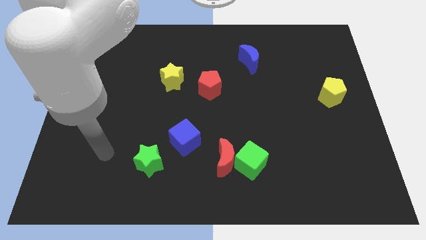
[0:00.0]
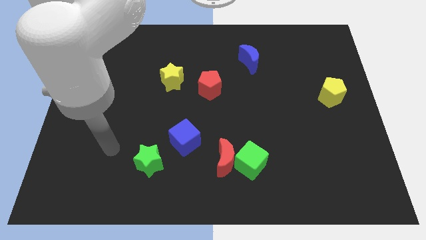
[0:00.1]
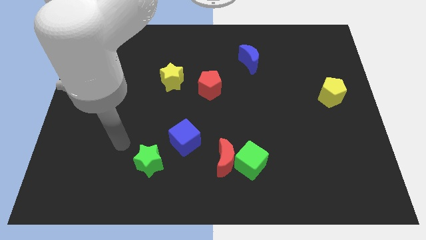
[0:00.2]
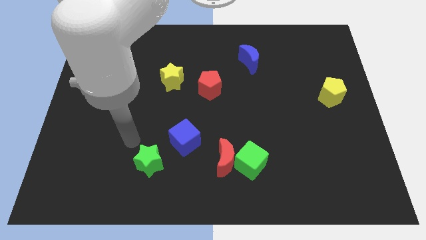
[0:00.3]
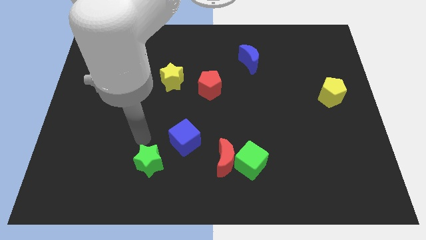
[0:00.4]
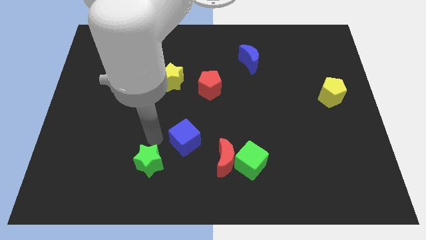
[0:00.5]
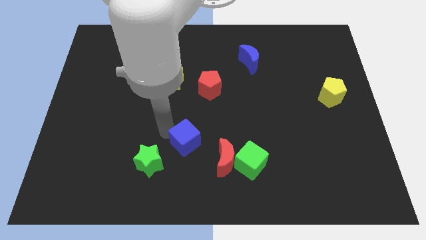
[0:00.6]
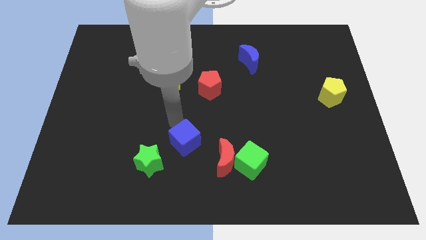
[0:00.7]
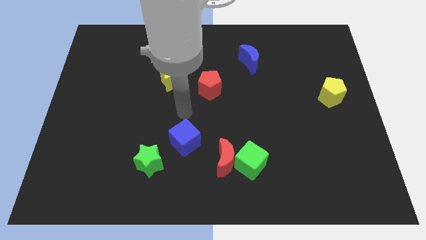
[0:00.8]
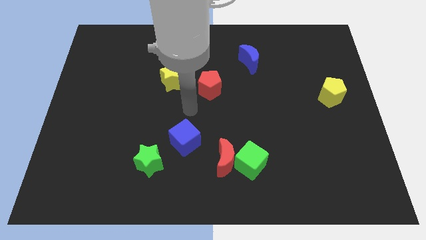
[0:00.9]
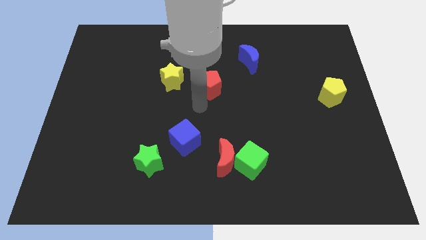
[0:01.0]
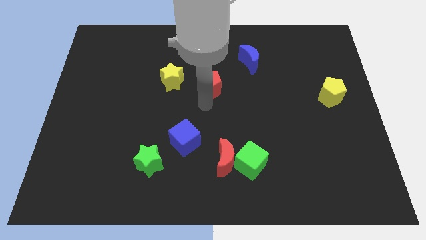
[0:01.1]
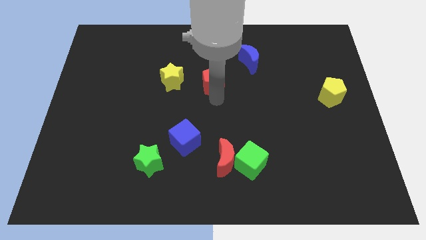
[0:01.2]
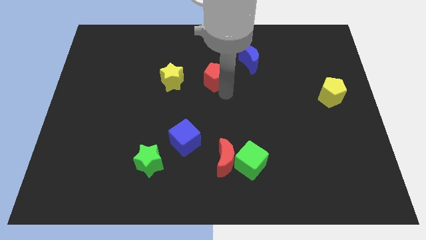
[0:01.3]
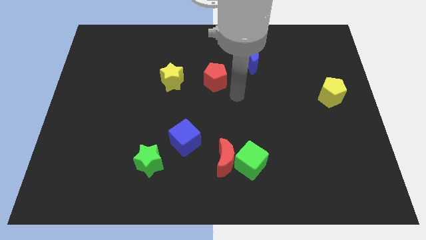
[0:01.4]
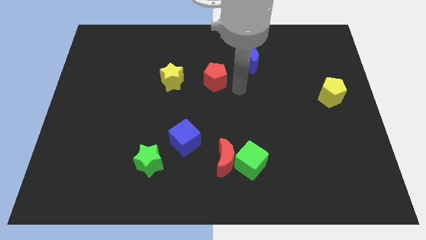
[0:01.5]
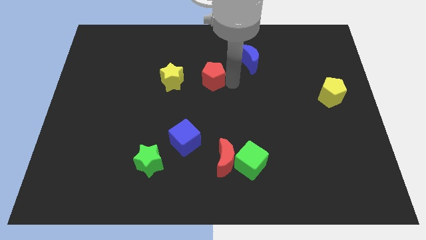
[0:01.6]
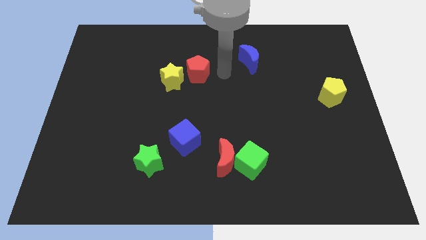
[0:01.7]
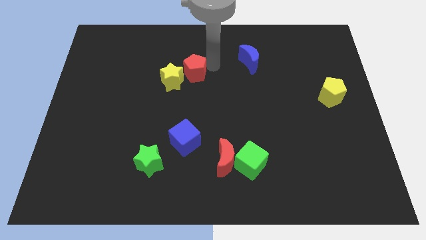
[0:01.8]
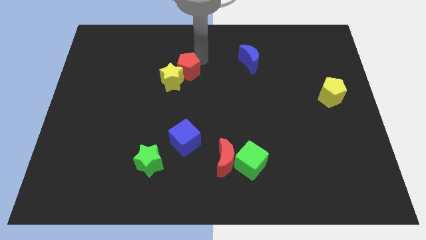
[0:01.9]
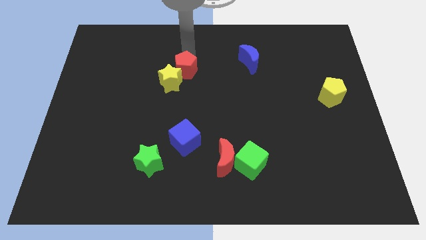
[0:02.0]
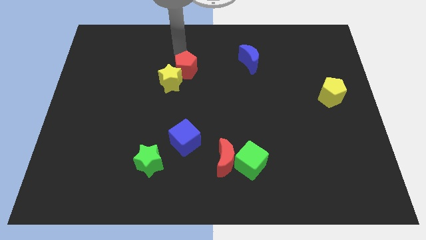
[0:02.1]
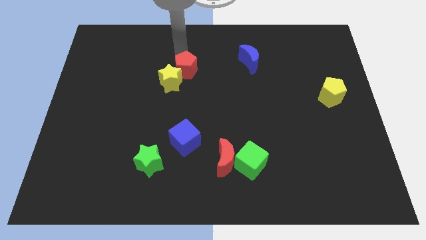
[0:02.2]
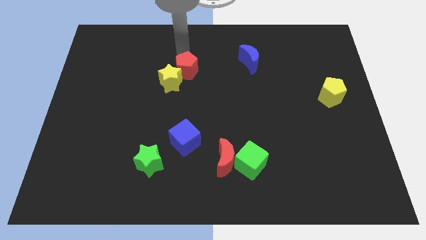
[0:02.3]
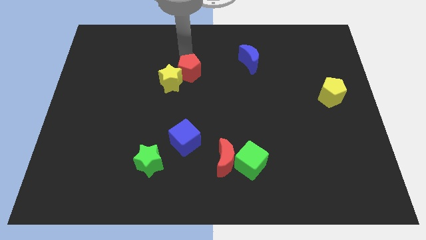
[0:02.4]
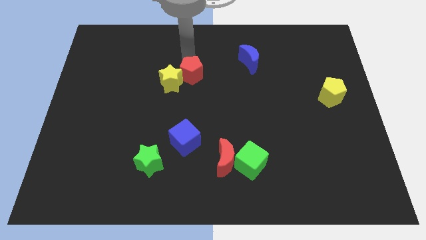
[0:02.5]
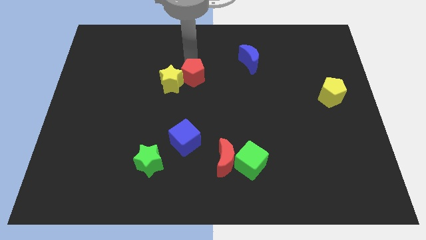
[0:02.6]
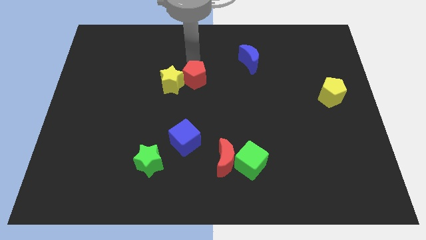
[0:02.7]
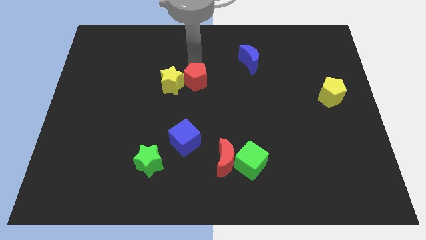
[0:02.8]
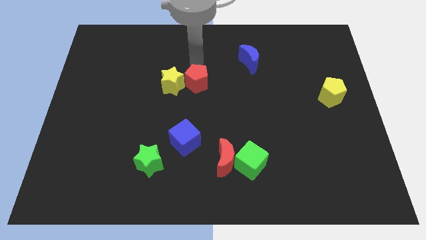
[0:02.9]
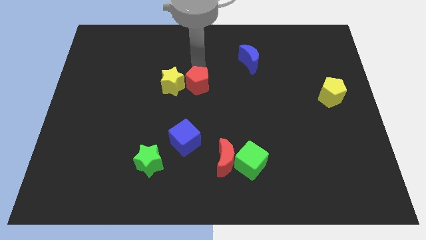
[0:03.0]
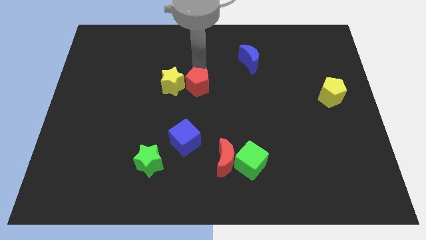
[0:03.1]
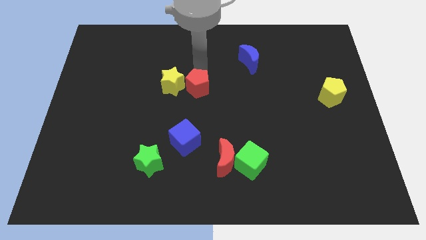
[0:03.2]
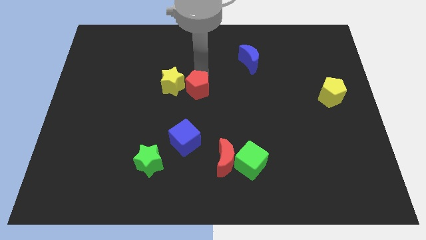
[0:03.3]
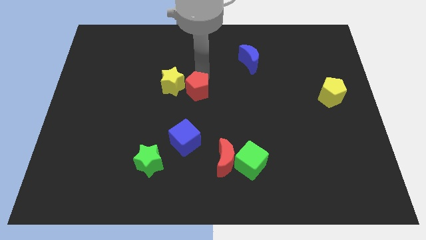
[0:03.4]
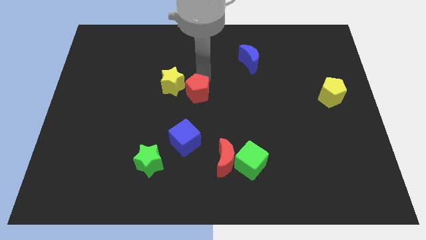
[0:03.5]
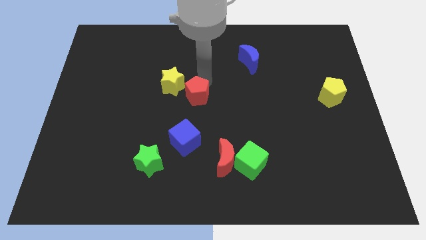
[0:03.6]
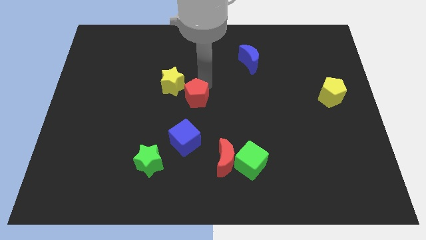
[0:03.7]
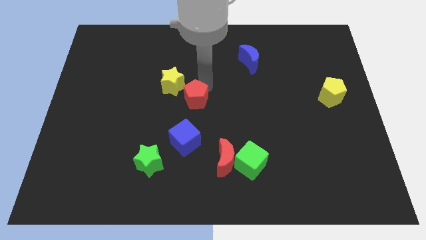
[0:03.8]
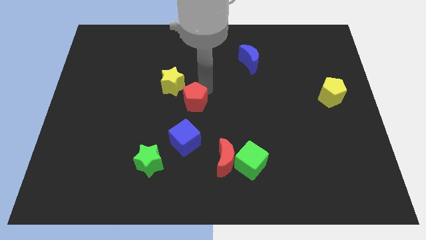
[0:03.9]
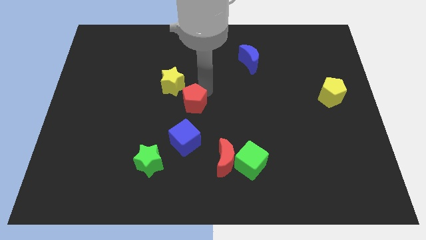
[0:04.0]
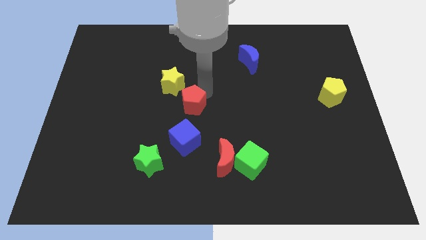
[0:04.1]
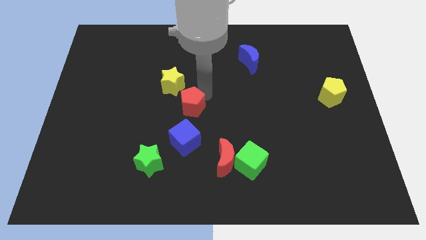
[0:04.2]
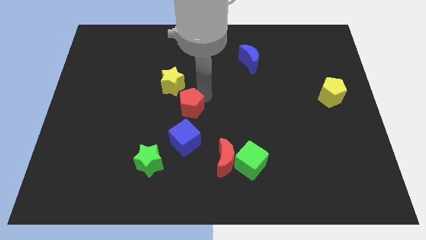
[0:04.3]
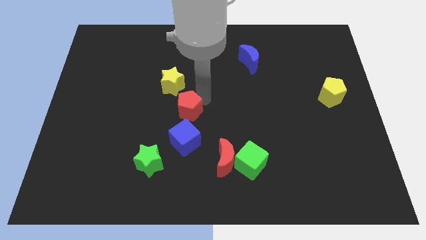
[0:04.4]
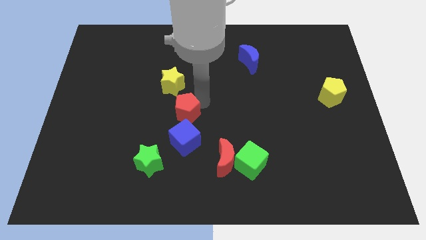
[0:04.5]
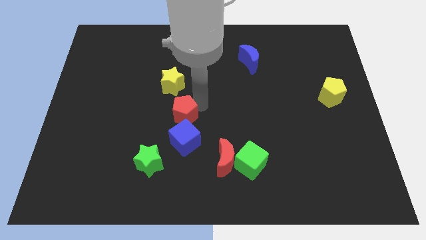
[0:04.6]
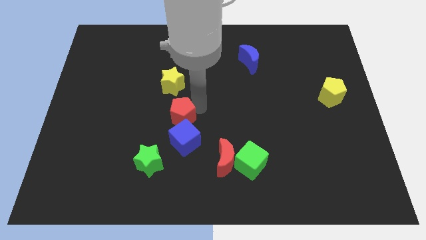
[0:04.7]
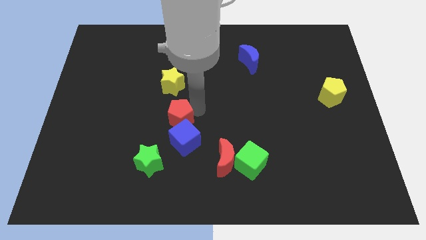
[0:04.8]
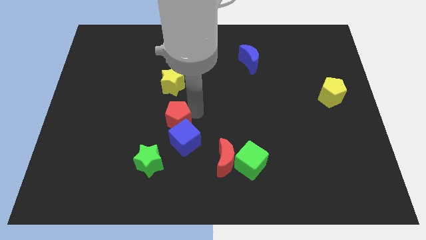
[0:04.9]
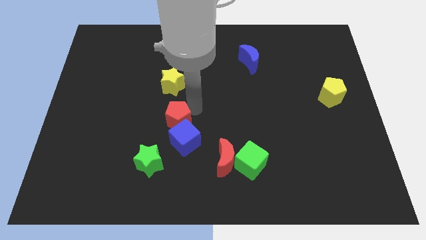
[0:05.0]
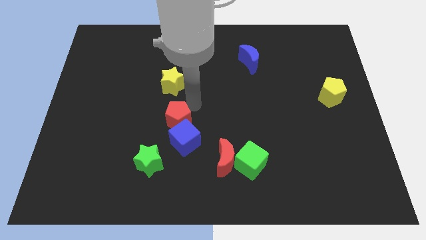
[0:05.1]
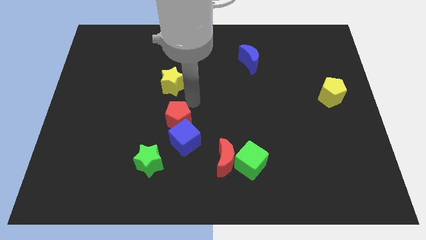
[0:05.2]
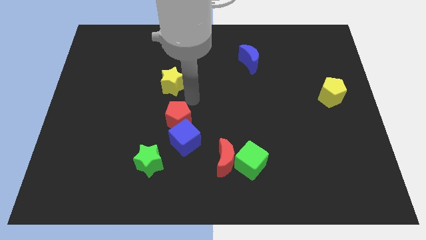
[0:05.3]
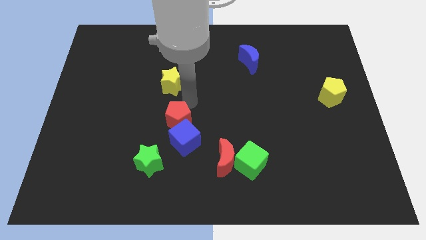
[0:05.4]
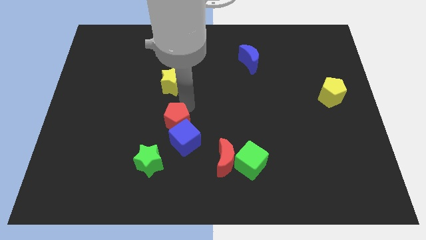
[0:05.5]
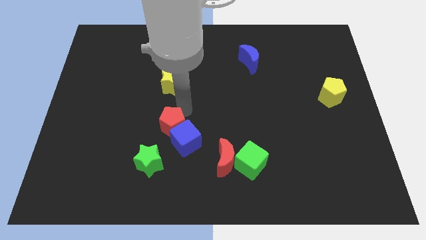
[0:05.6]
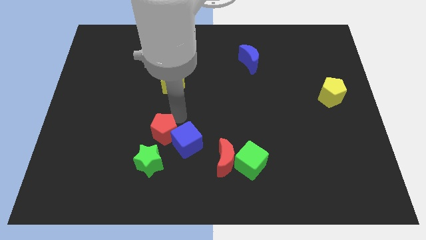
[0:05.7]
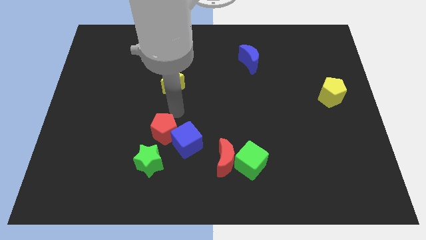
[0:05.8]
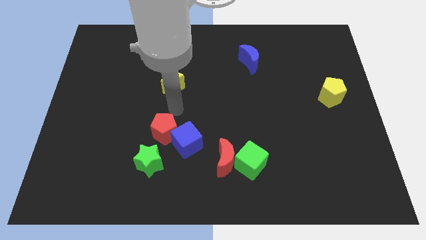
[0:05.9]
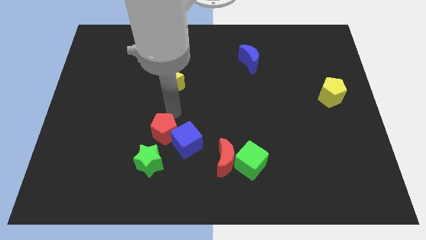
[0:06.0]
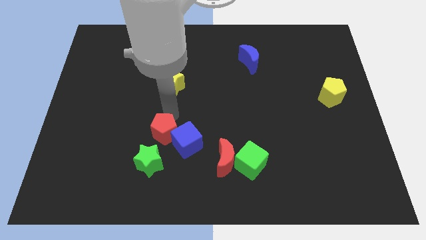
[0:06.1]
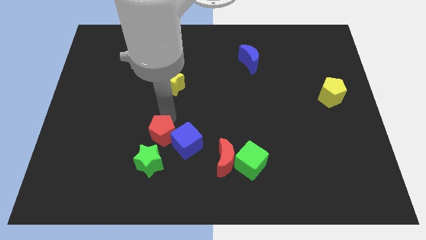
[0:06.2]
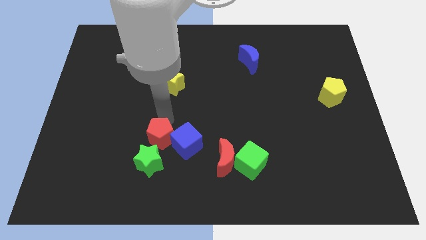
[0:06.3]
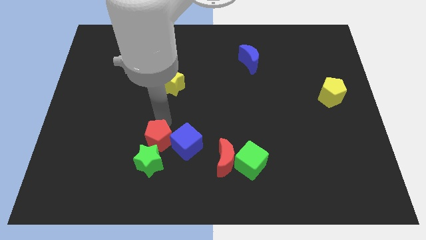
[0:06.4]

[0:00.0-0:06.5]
put the red pentagon to the green star

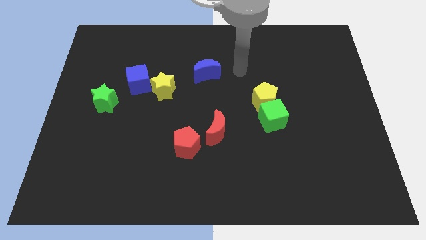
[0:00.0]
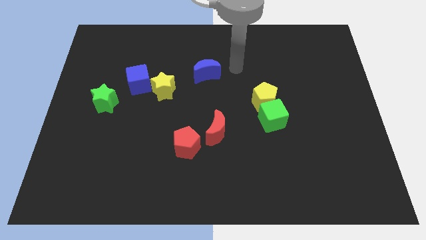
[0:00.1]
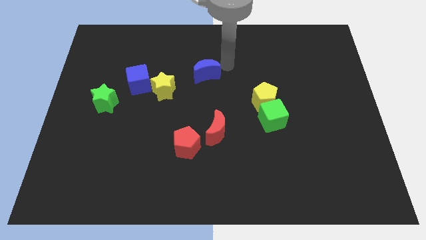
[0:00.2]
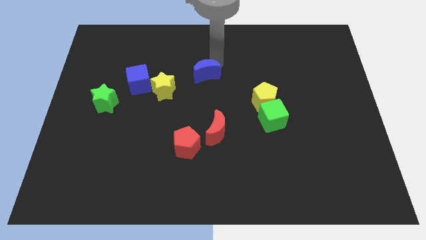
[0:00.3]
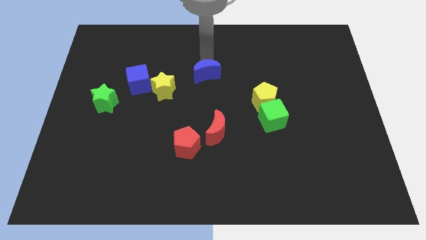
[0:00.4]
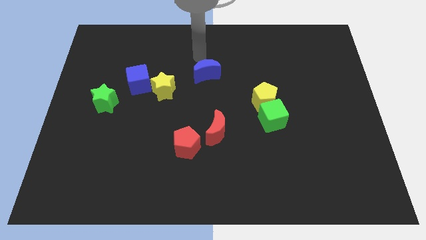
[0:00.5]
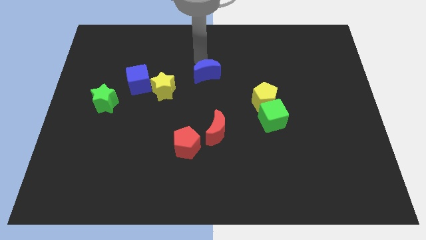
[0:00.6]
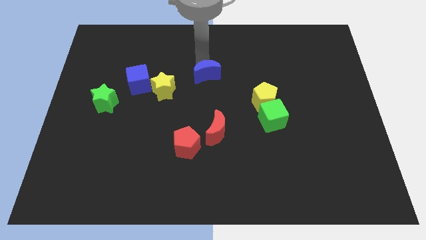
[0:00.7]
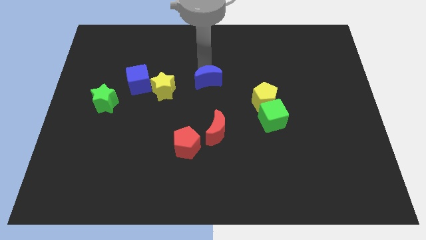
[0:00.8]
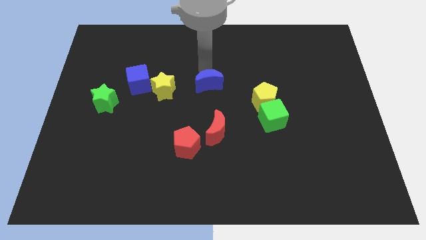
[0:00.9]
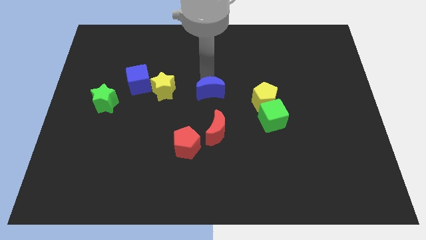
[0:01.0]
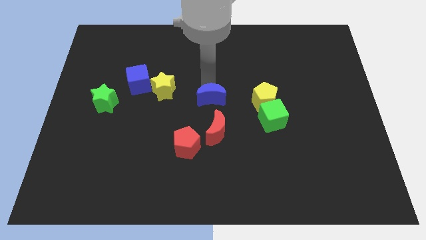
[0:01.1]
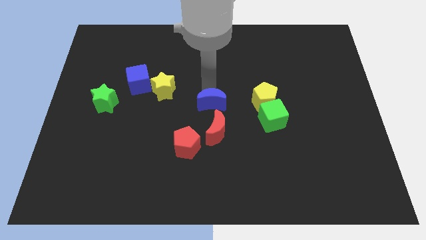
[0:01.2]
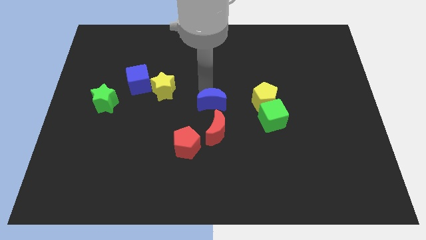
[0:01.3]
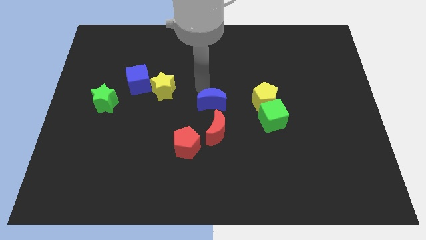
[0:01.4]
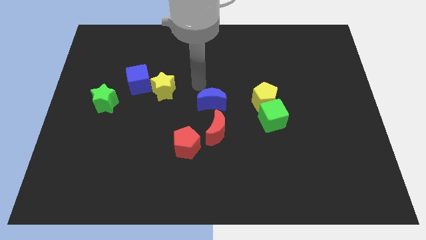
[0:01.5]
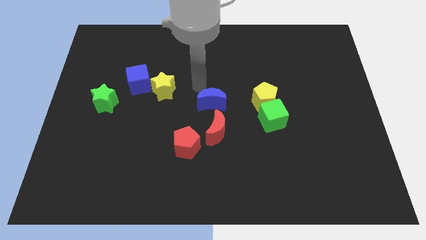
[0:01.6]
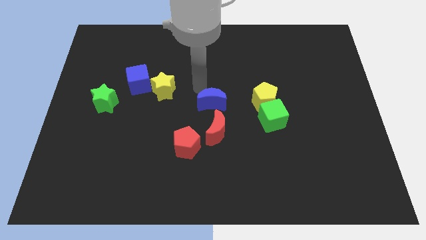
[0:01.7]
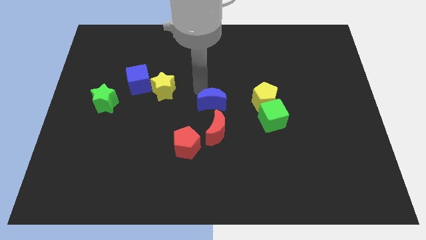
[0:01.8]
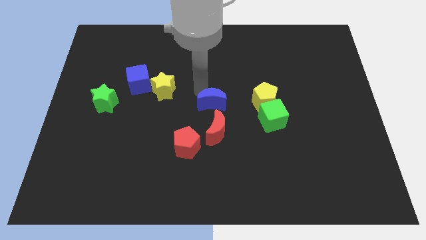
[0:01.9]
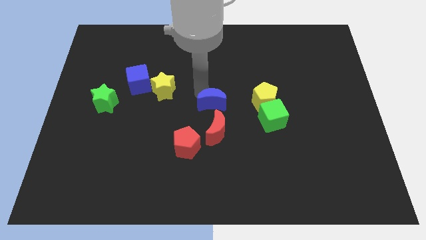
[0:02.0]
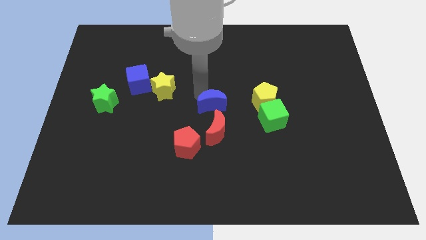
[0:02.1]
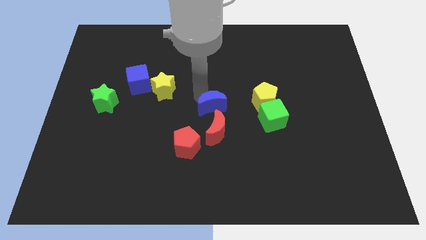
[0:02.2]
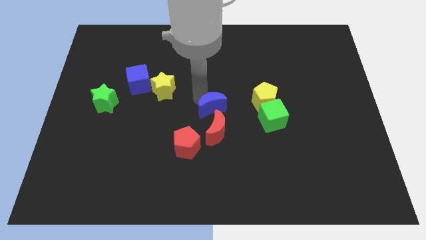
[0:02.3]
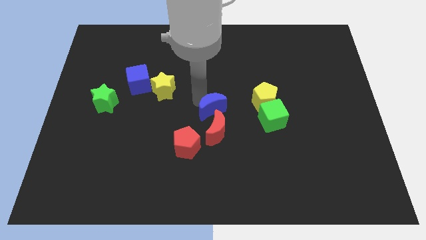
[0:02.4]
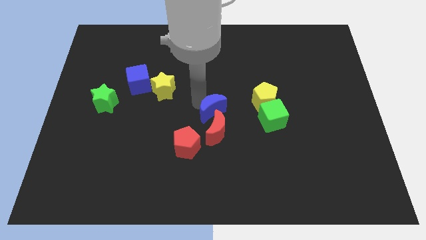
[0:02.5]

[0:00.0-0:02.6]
slide the blue moon close to the red moon
